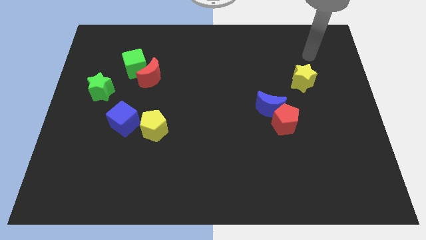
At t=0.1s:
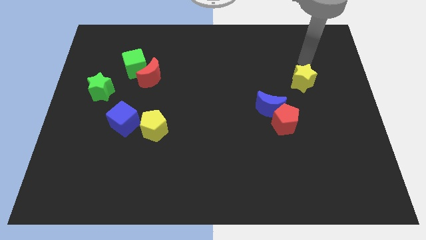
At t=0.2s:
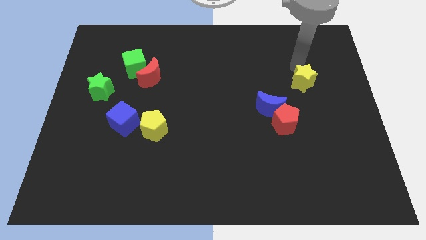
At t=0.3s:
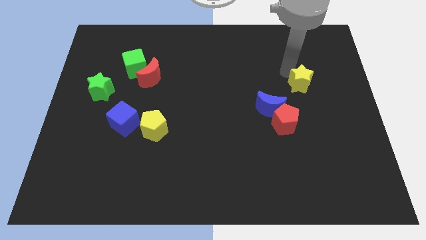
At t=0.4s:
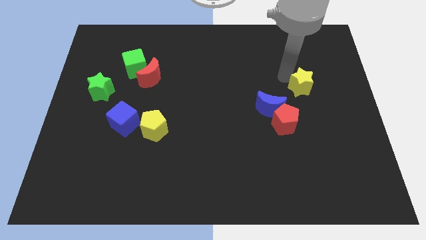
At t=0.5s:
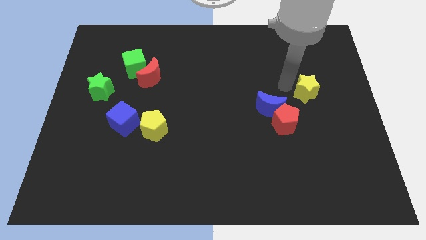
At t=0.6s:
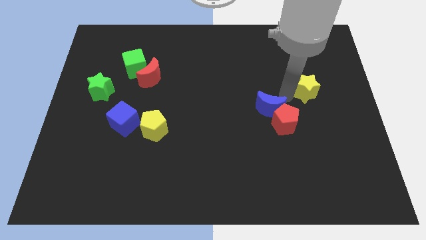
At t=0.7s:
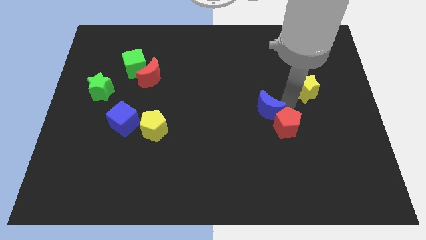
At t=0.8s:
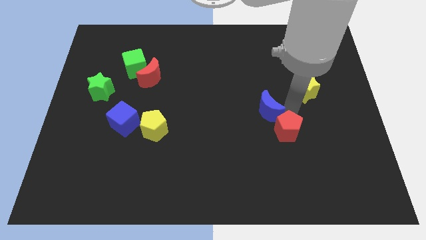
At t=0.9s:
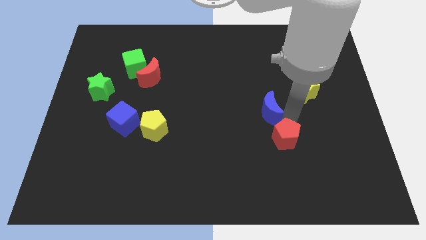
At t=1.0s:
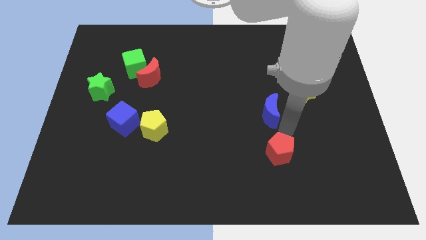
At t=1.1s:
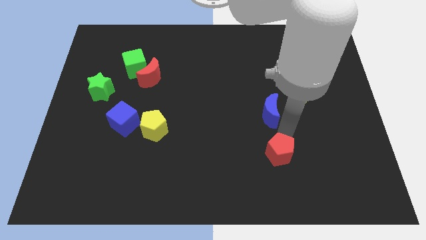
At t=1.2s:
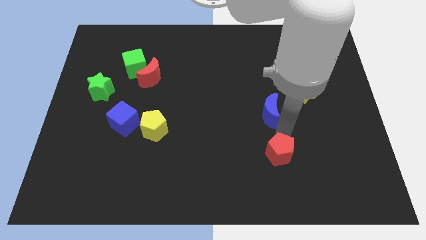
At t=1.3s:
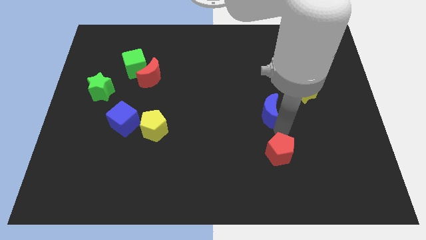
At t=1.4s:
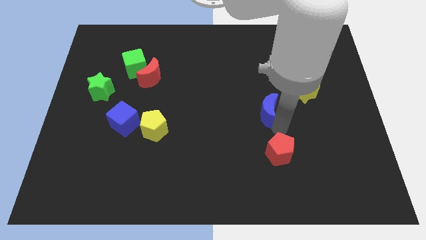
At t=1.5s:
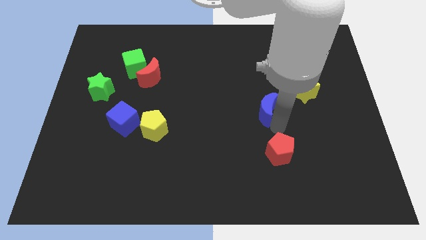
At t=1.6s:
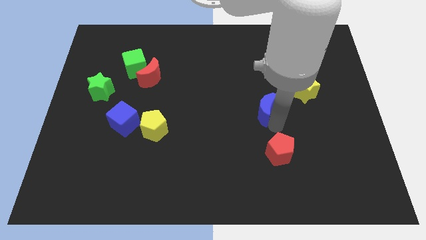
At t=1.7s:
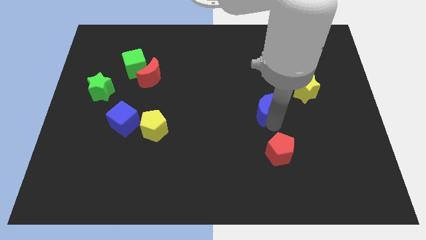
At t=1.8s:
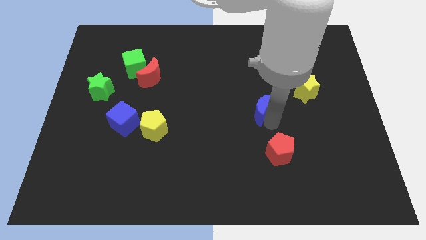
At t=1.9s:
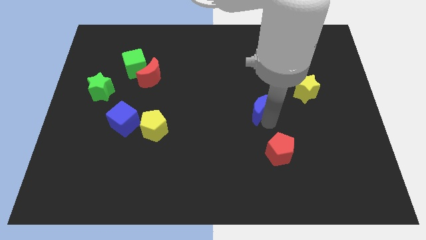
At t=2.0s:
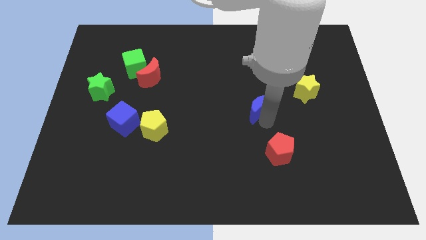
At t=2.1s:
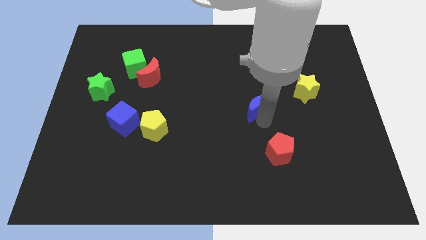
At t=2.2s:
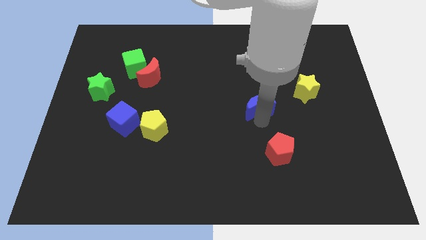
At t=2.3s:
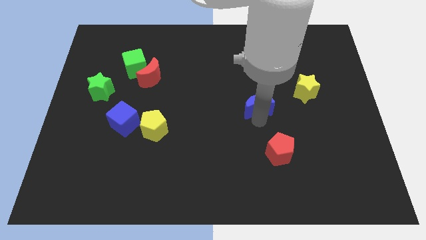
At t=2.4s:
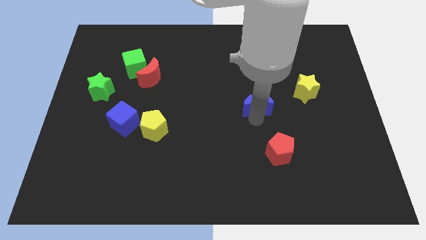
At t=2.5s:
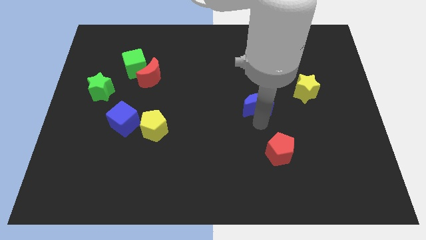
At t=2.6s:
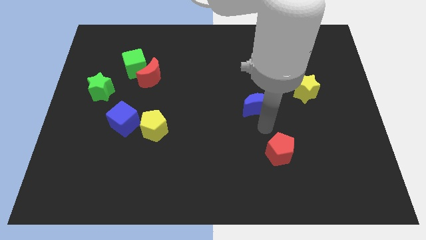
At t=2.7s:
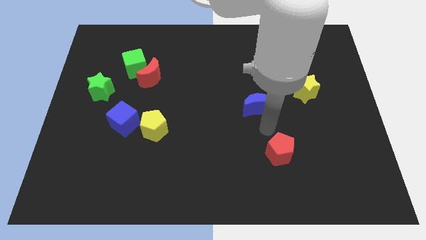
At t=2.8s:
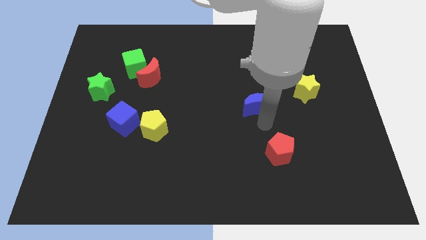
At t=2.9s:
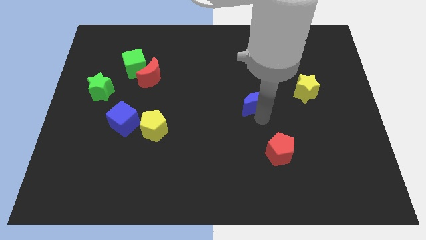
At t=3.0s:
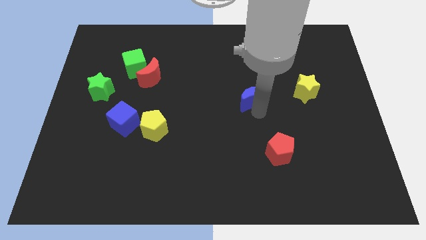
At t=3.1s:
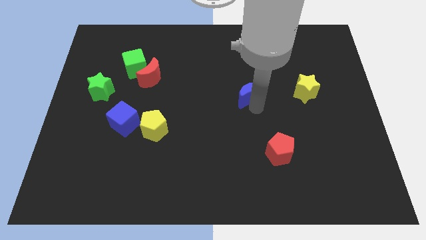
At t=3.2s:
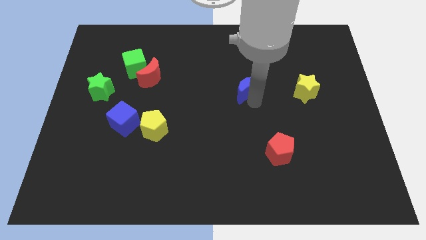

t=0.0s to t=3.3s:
push the blue moon a bit diagonally upwards and to the left

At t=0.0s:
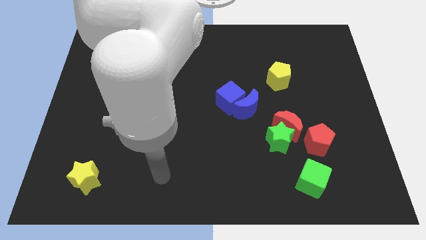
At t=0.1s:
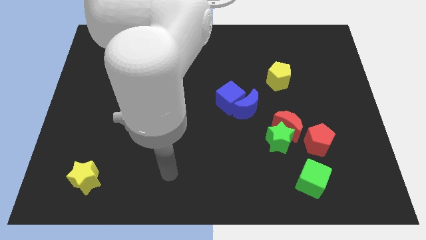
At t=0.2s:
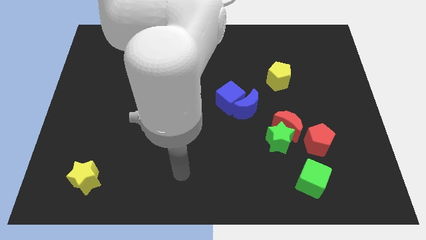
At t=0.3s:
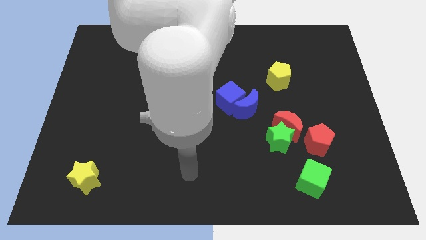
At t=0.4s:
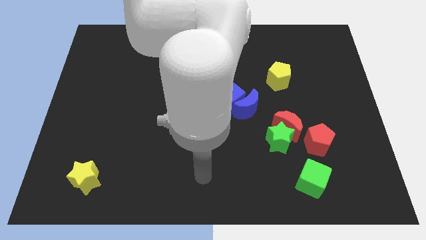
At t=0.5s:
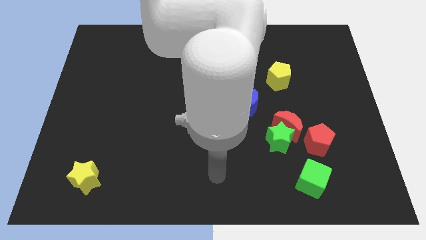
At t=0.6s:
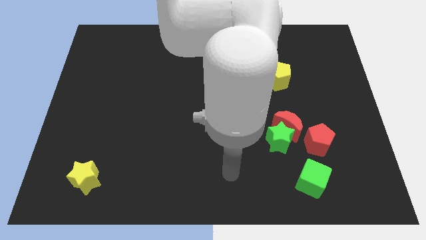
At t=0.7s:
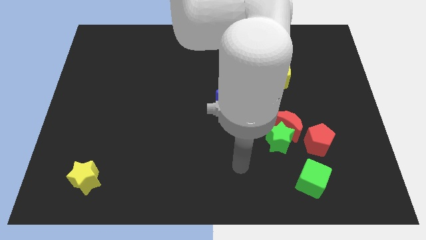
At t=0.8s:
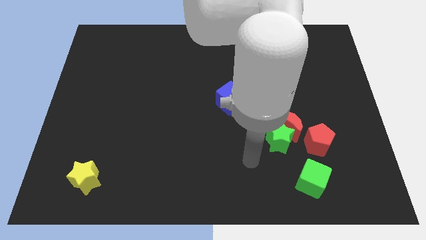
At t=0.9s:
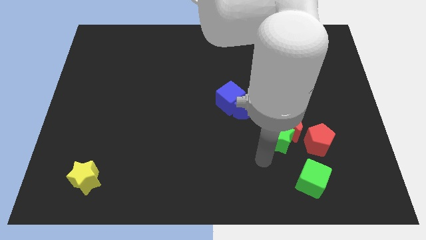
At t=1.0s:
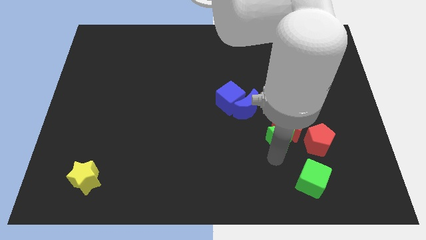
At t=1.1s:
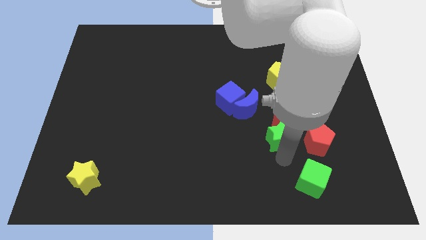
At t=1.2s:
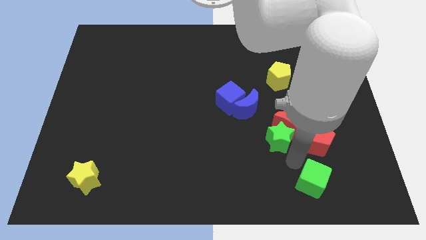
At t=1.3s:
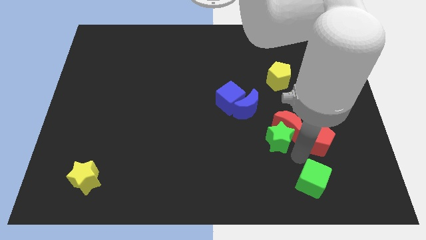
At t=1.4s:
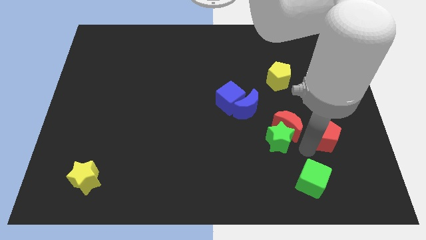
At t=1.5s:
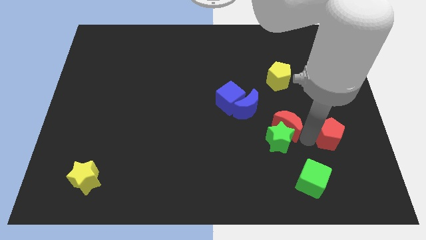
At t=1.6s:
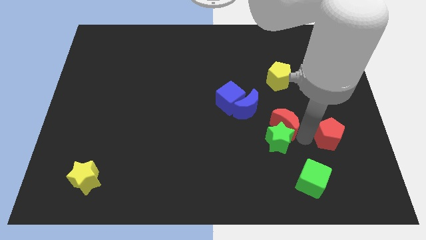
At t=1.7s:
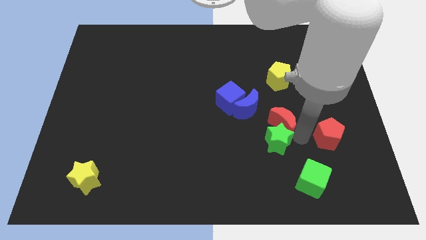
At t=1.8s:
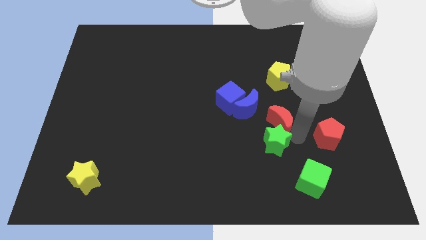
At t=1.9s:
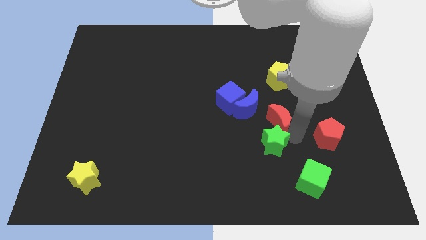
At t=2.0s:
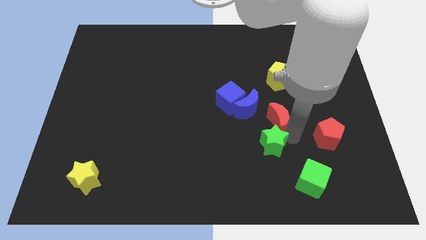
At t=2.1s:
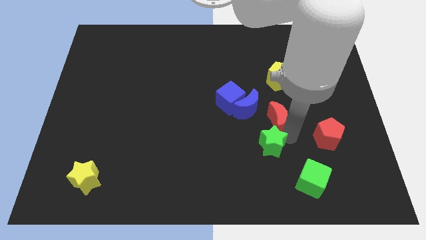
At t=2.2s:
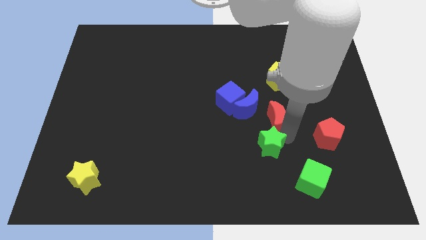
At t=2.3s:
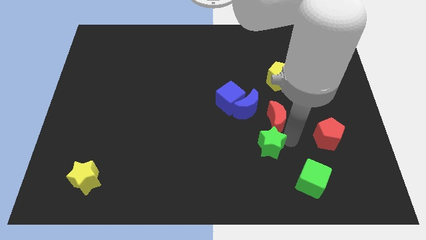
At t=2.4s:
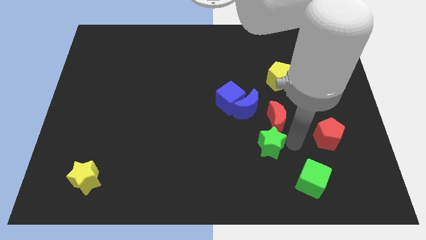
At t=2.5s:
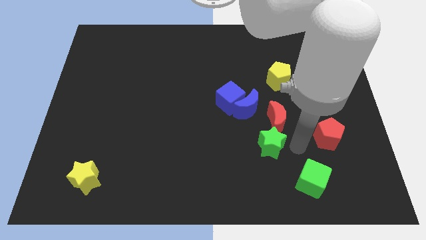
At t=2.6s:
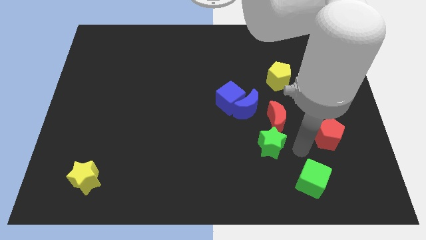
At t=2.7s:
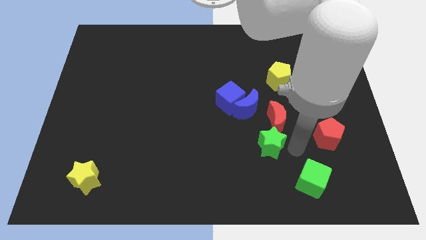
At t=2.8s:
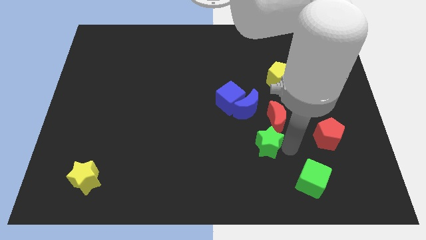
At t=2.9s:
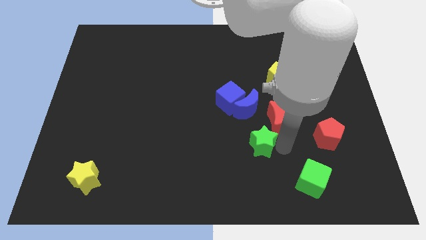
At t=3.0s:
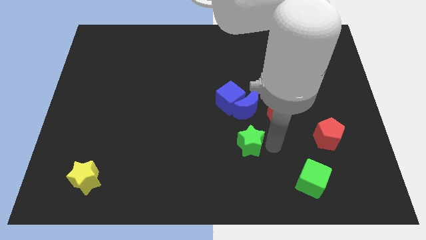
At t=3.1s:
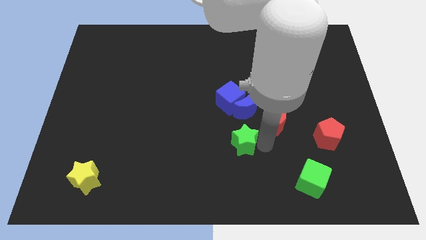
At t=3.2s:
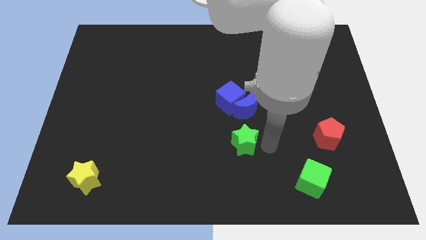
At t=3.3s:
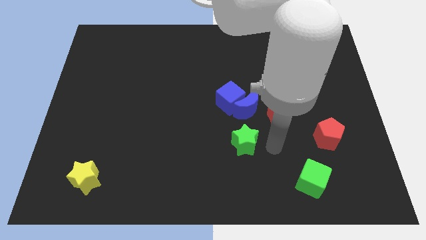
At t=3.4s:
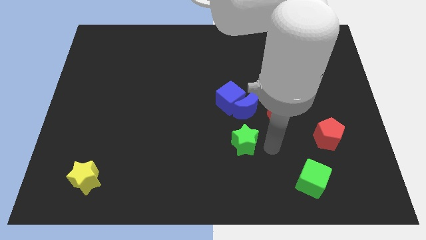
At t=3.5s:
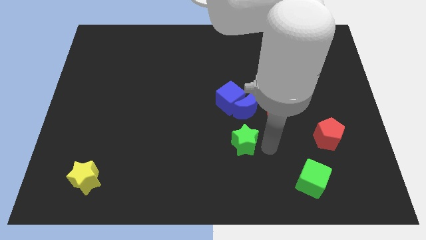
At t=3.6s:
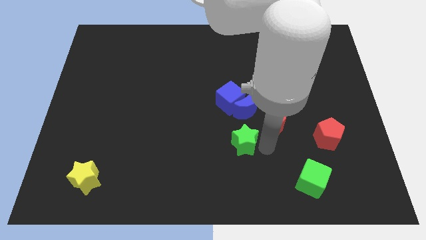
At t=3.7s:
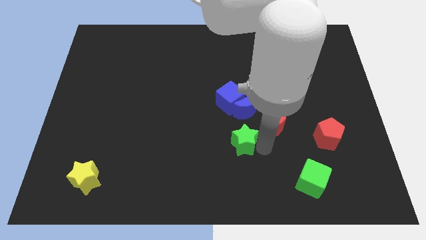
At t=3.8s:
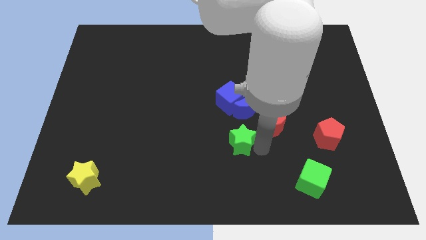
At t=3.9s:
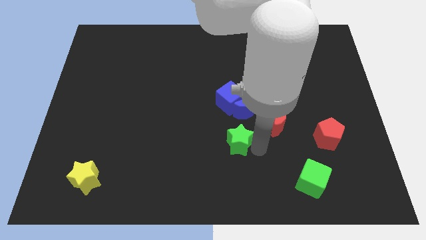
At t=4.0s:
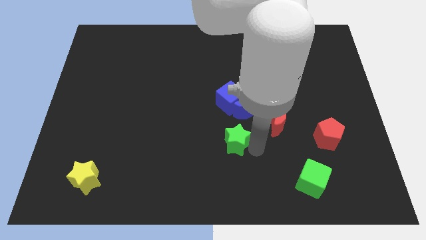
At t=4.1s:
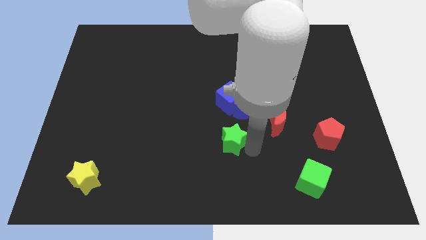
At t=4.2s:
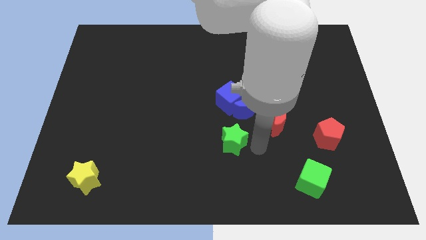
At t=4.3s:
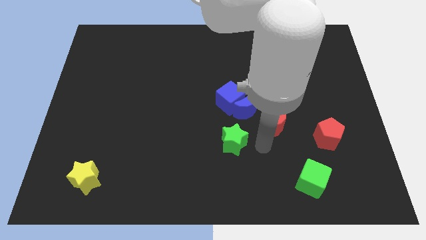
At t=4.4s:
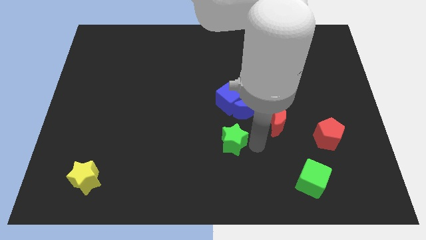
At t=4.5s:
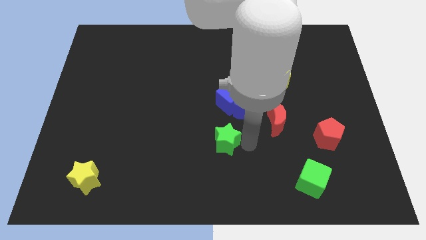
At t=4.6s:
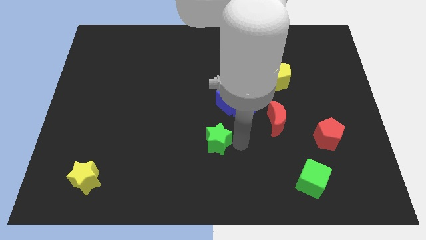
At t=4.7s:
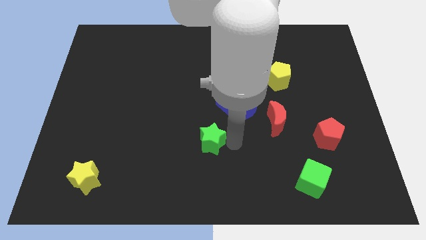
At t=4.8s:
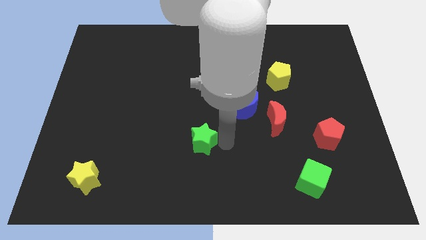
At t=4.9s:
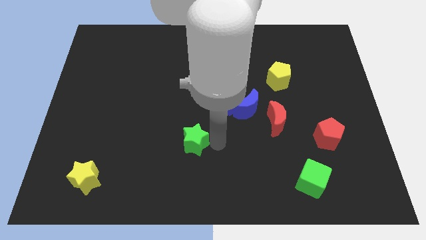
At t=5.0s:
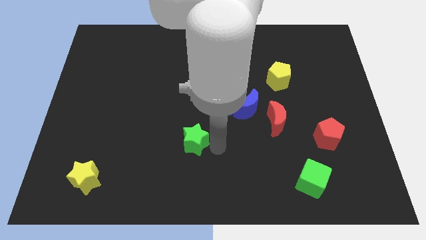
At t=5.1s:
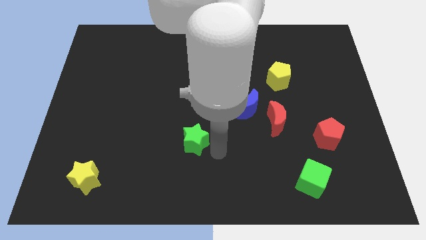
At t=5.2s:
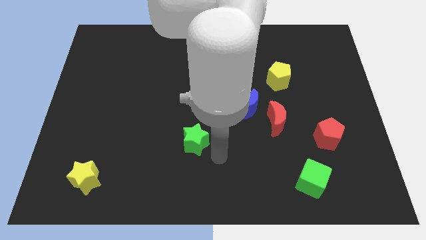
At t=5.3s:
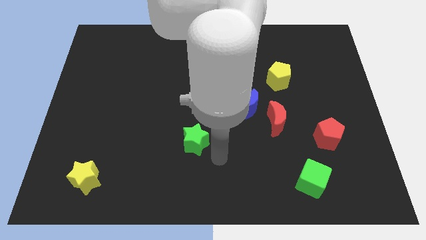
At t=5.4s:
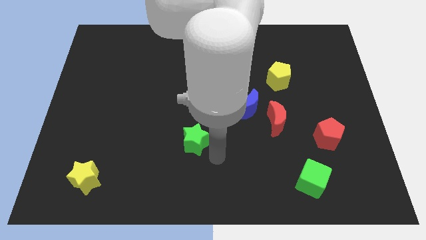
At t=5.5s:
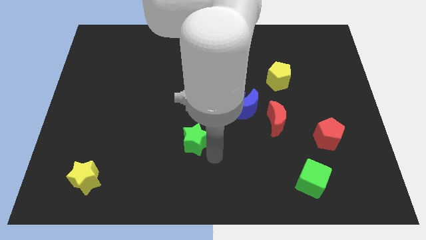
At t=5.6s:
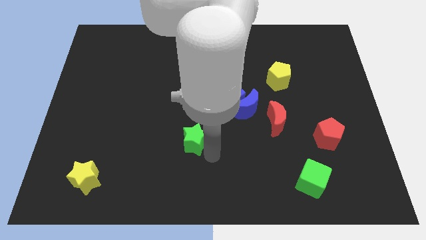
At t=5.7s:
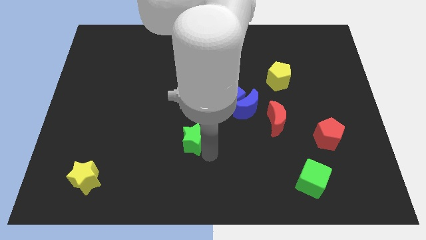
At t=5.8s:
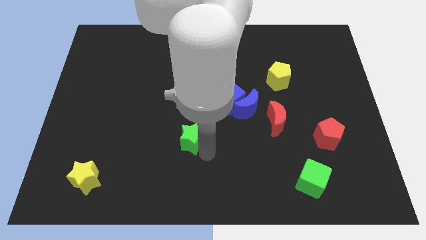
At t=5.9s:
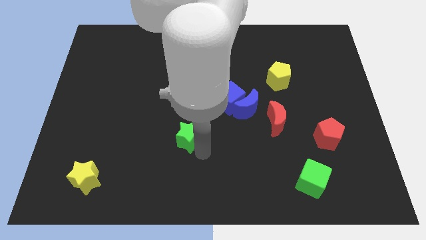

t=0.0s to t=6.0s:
push the green star left
